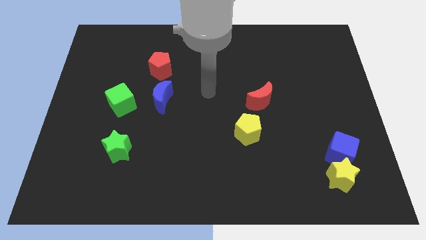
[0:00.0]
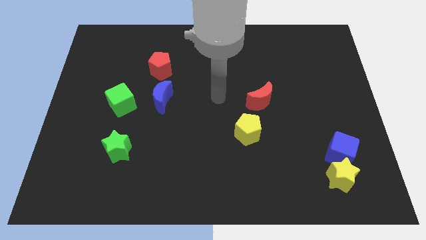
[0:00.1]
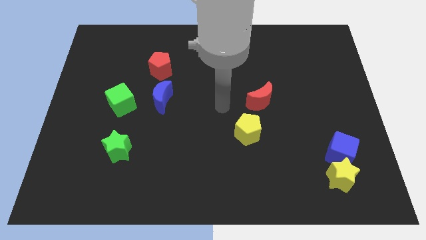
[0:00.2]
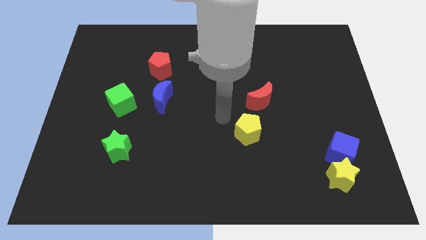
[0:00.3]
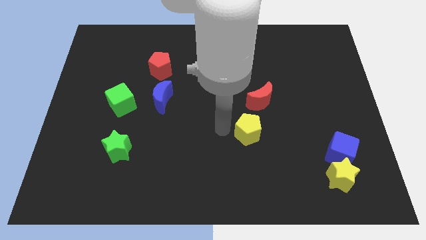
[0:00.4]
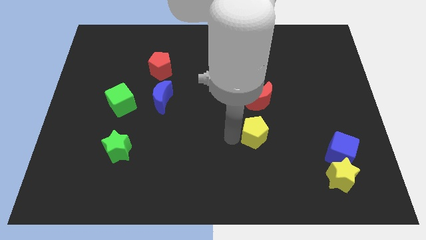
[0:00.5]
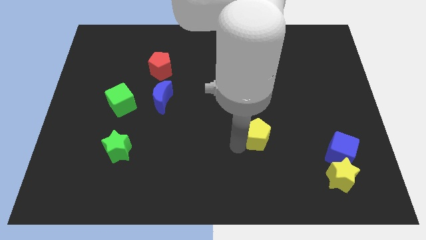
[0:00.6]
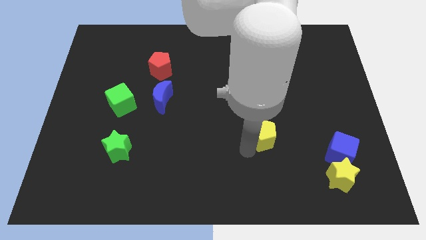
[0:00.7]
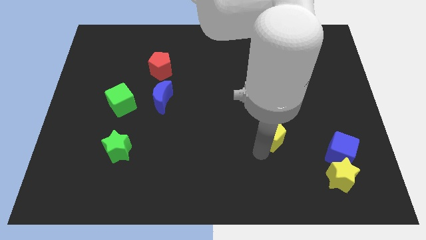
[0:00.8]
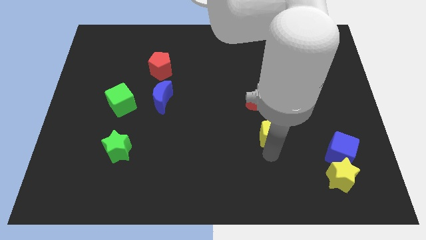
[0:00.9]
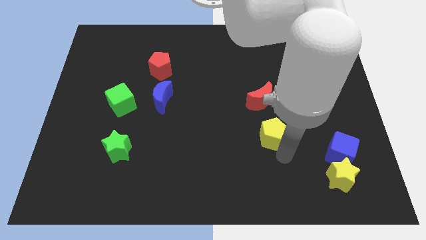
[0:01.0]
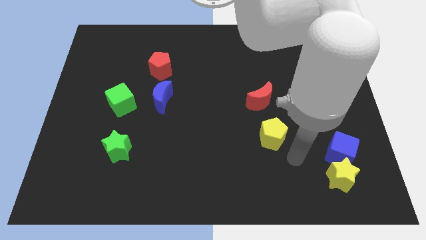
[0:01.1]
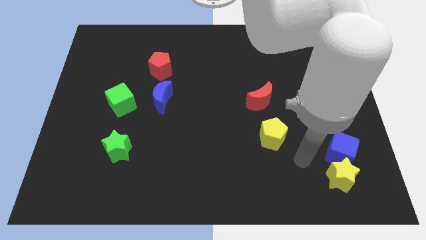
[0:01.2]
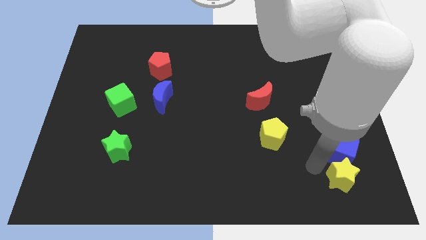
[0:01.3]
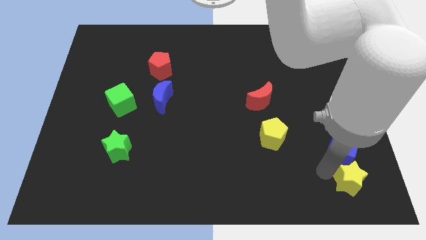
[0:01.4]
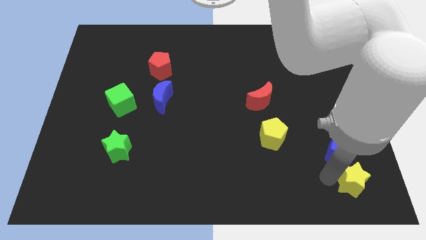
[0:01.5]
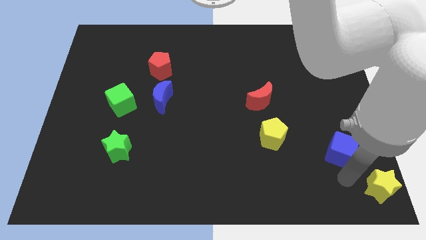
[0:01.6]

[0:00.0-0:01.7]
separate the blue cube from the yellow star

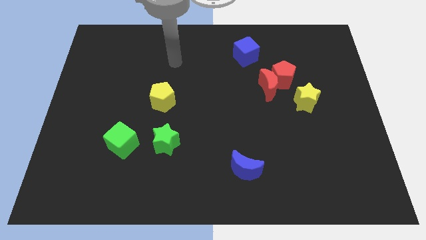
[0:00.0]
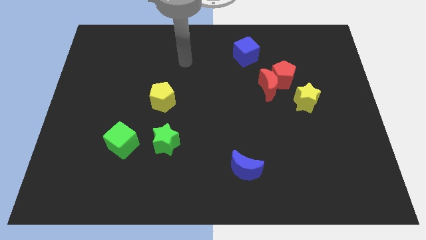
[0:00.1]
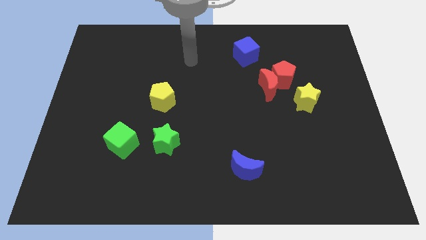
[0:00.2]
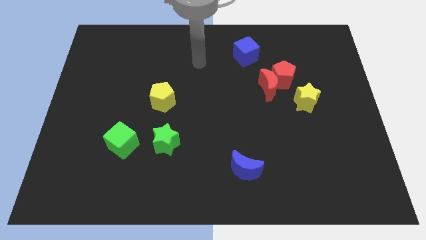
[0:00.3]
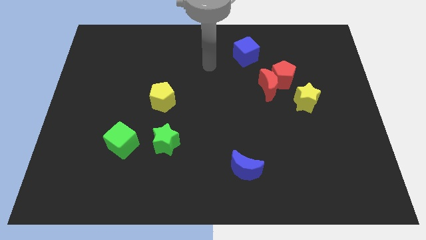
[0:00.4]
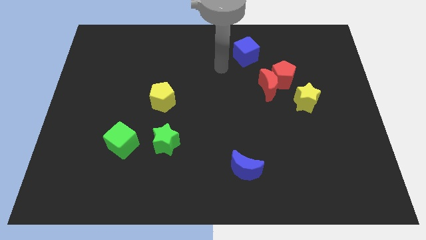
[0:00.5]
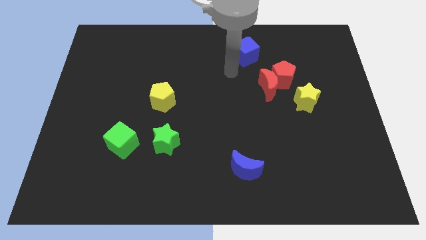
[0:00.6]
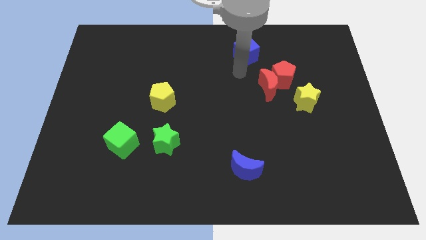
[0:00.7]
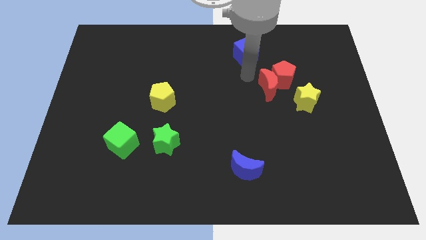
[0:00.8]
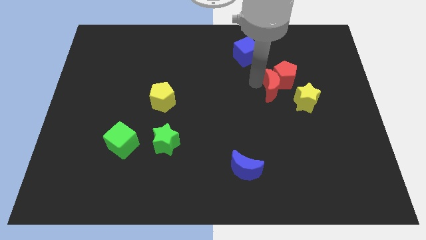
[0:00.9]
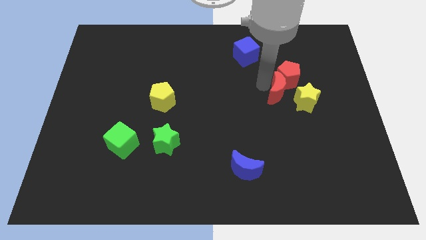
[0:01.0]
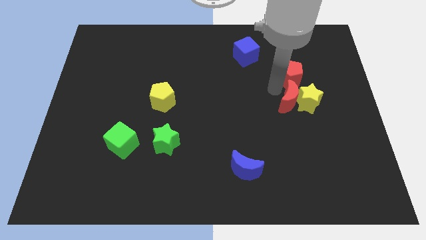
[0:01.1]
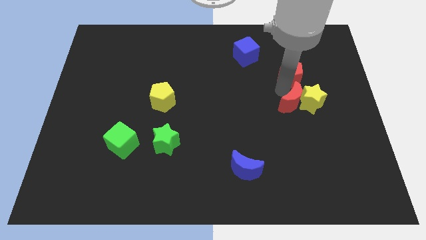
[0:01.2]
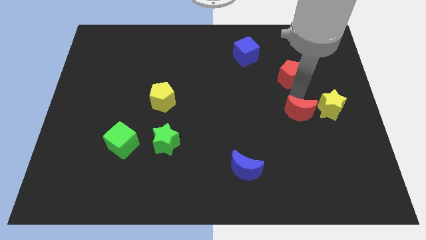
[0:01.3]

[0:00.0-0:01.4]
separate the red pentagon from the red moon and yellow star

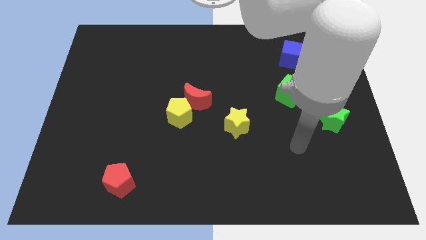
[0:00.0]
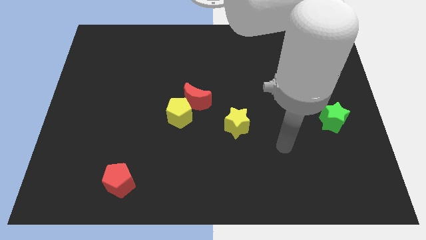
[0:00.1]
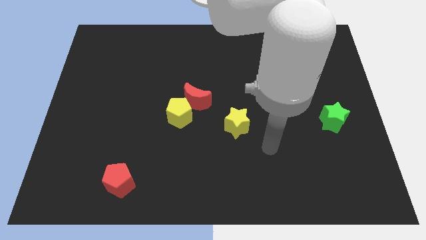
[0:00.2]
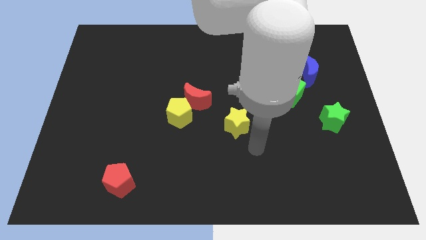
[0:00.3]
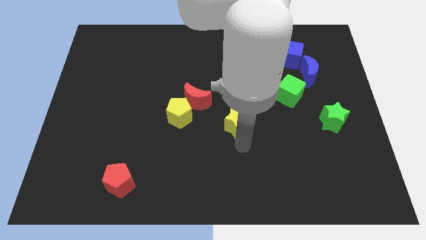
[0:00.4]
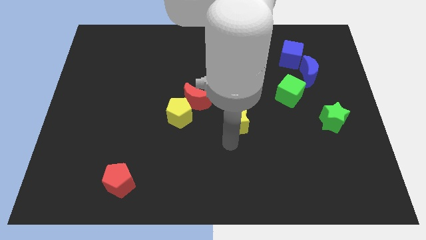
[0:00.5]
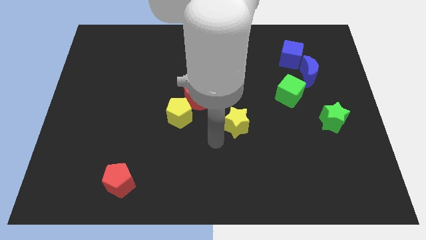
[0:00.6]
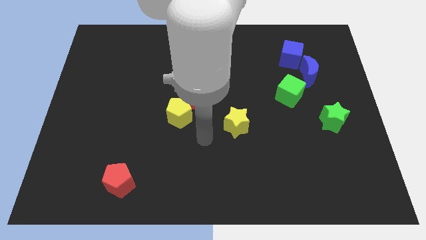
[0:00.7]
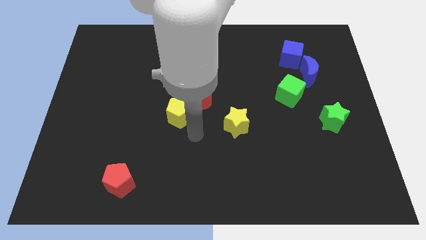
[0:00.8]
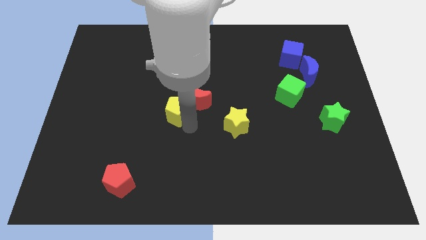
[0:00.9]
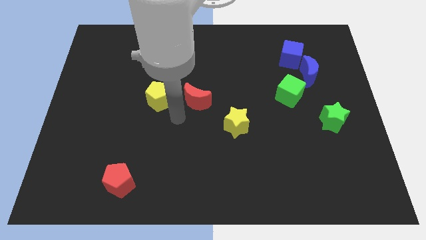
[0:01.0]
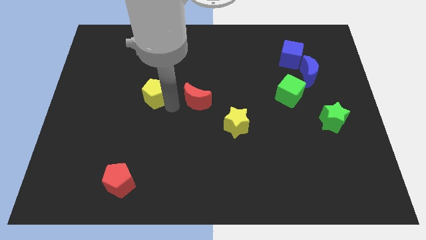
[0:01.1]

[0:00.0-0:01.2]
move the red moon away from the yellow pentagon

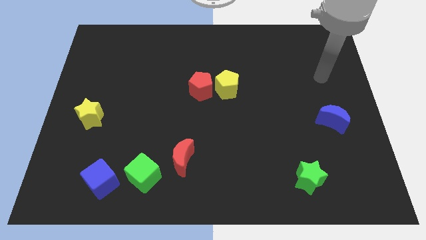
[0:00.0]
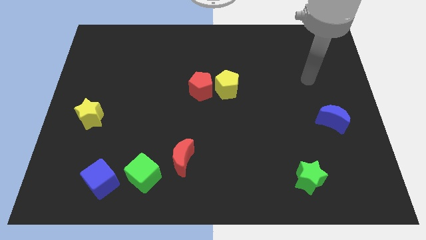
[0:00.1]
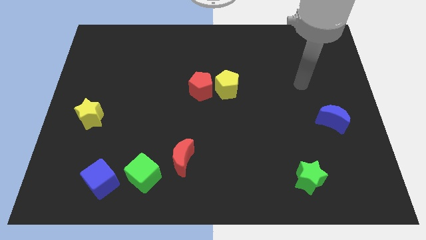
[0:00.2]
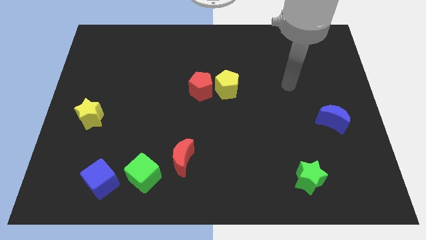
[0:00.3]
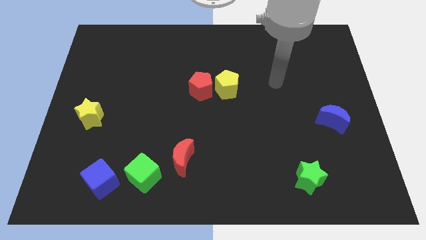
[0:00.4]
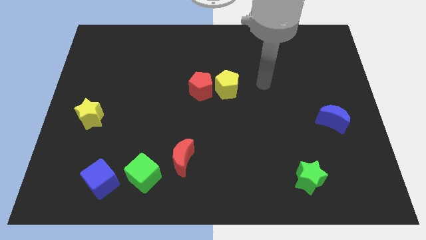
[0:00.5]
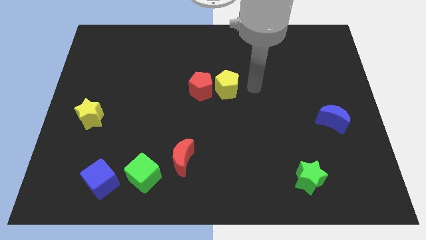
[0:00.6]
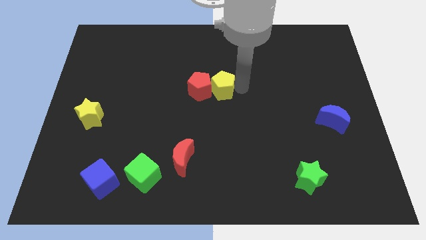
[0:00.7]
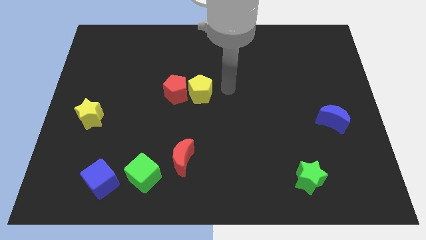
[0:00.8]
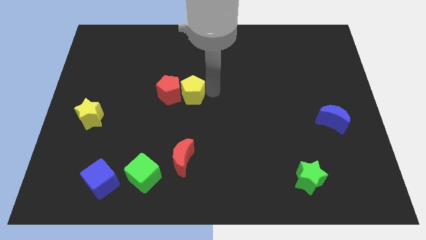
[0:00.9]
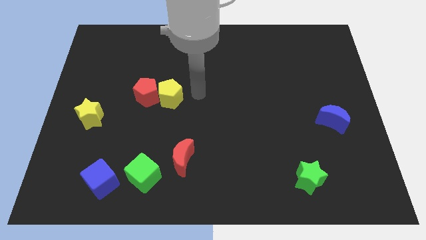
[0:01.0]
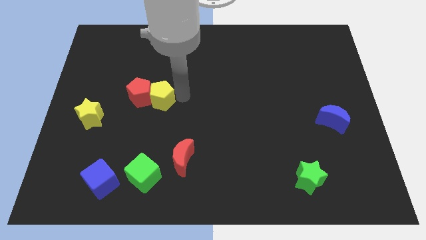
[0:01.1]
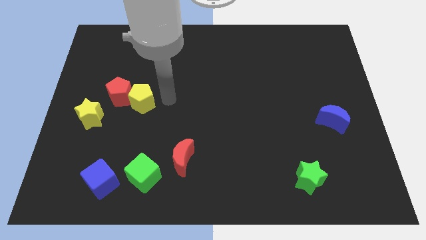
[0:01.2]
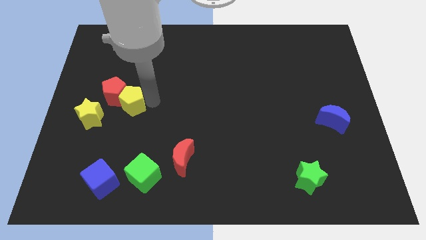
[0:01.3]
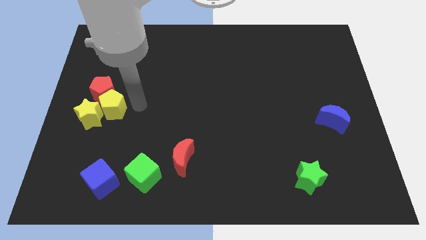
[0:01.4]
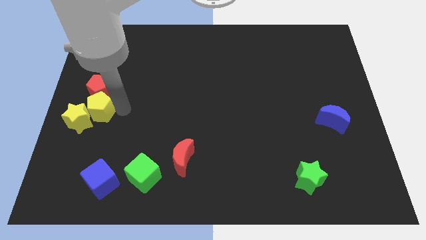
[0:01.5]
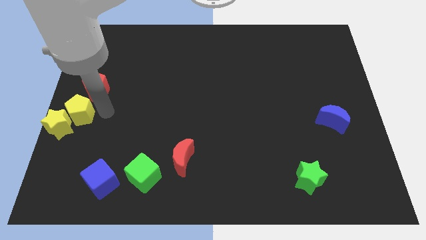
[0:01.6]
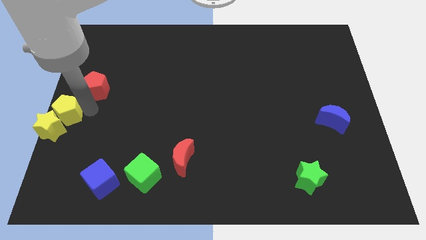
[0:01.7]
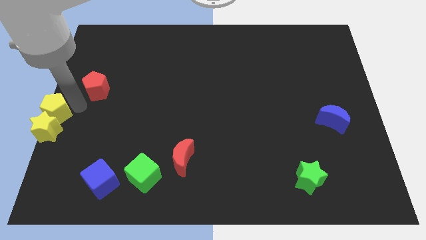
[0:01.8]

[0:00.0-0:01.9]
pull the red pentagon apart from the yellow pentagon

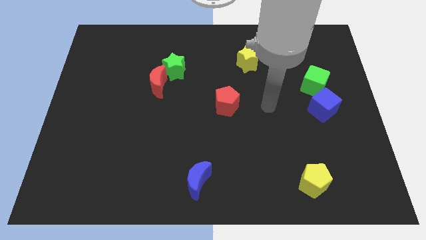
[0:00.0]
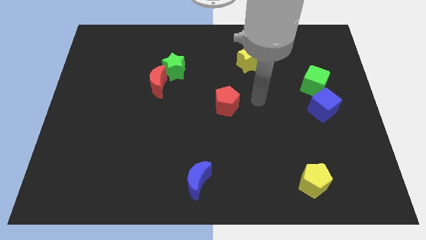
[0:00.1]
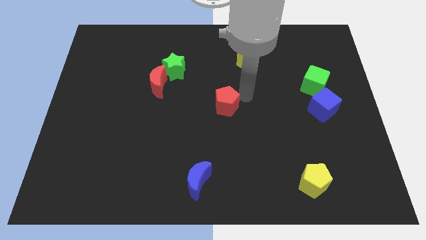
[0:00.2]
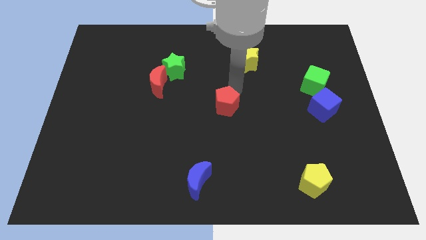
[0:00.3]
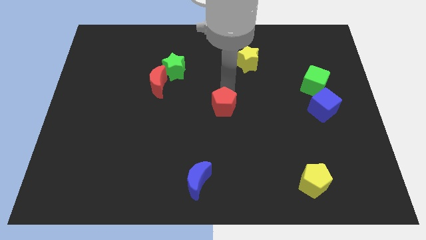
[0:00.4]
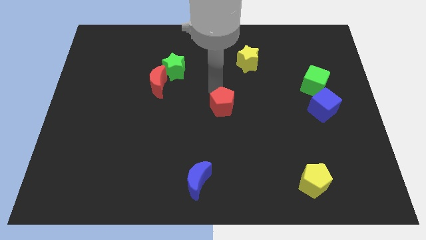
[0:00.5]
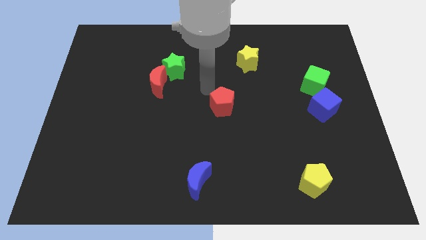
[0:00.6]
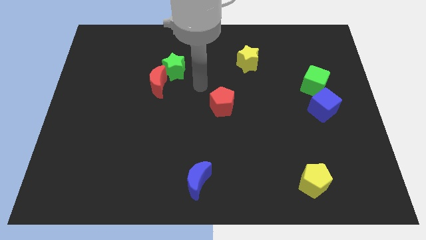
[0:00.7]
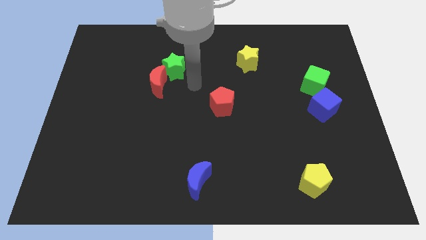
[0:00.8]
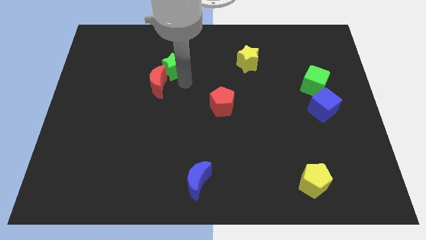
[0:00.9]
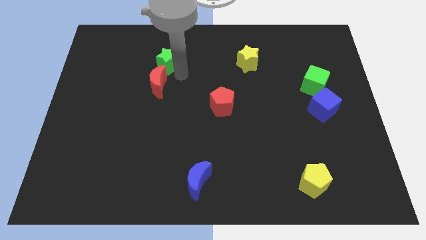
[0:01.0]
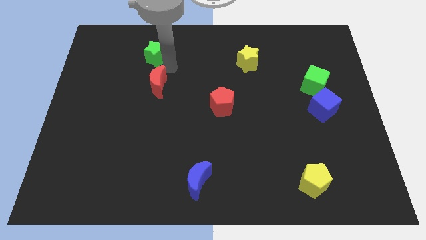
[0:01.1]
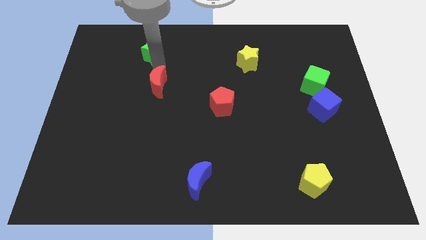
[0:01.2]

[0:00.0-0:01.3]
separate the red moon from the green star

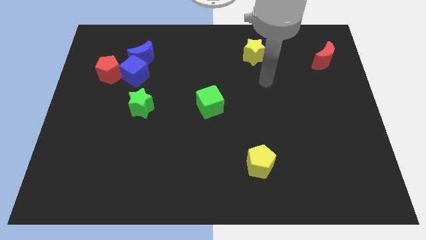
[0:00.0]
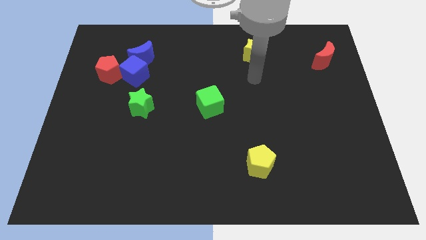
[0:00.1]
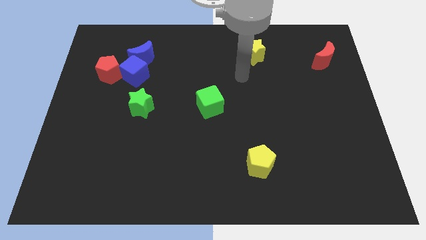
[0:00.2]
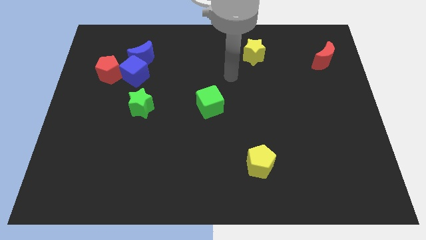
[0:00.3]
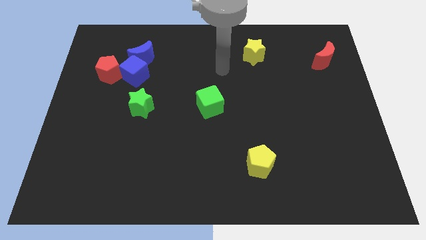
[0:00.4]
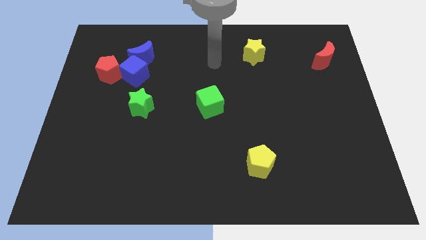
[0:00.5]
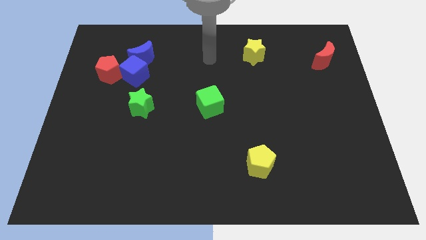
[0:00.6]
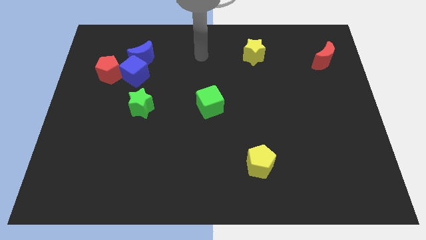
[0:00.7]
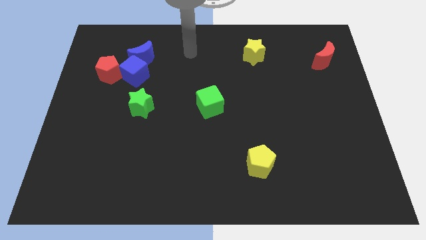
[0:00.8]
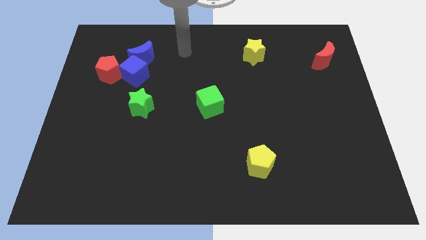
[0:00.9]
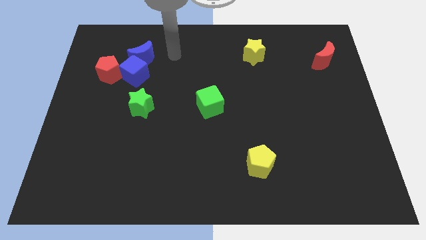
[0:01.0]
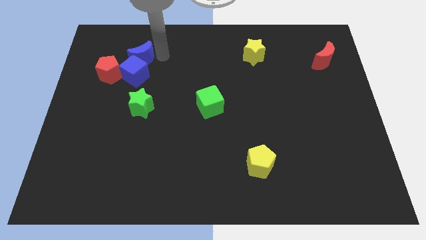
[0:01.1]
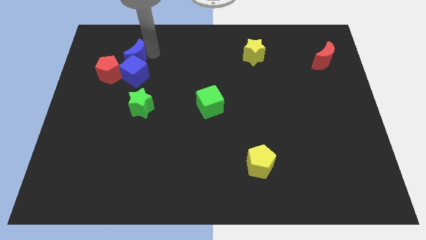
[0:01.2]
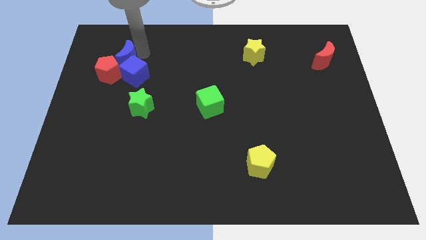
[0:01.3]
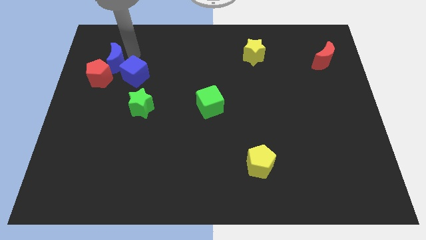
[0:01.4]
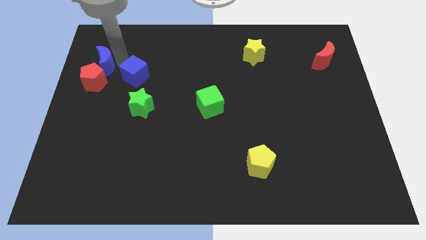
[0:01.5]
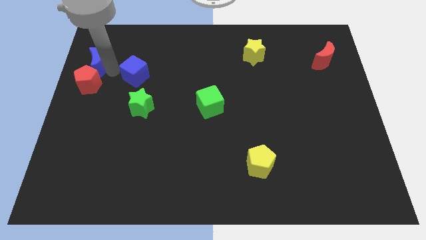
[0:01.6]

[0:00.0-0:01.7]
separate the blue cube from the blue moon and red pentagon
